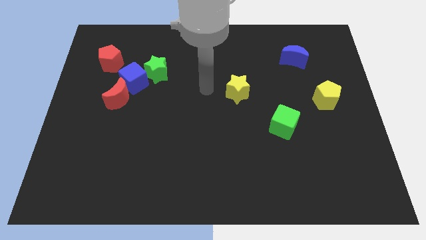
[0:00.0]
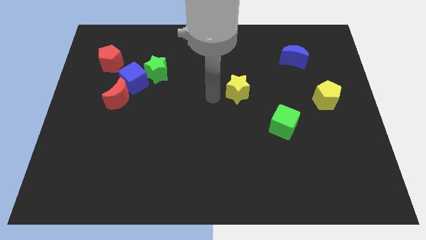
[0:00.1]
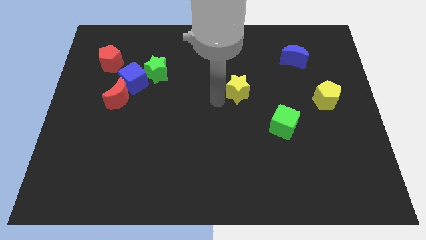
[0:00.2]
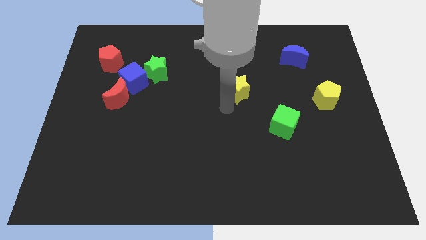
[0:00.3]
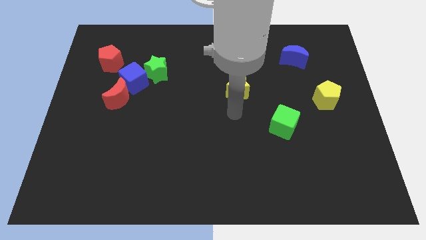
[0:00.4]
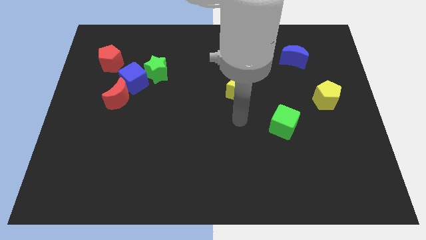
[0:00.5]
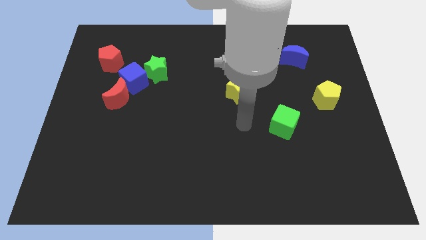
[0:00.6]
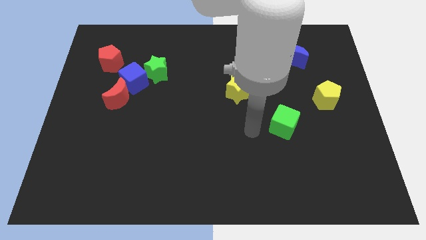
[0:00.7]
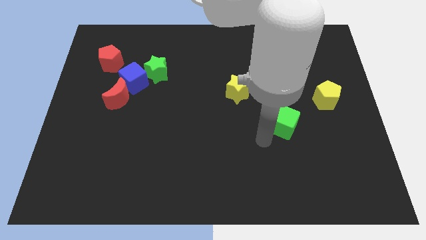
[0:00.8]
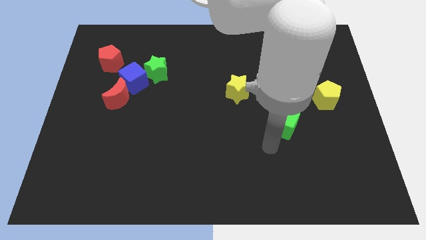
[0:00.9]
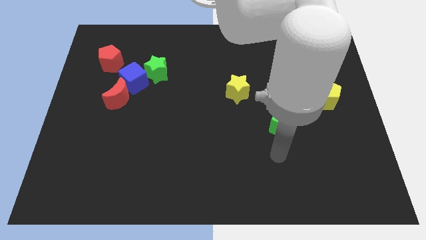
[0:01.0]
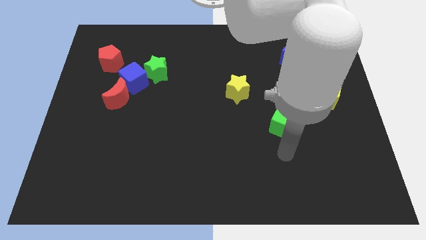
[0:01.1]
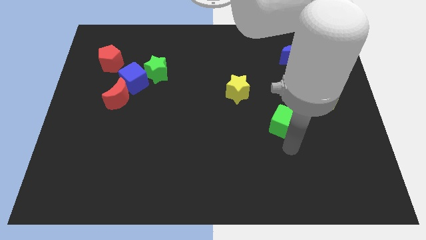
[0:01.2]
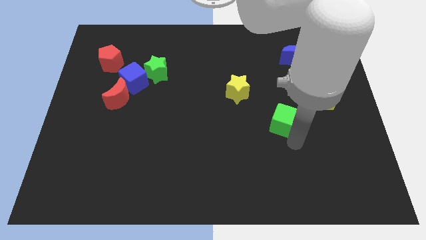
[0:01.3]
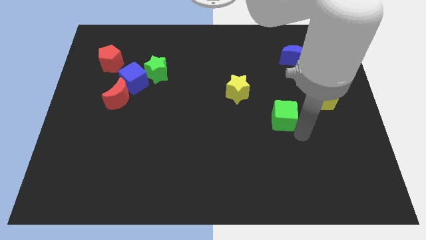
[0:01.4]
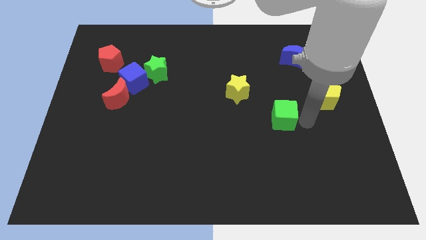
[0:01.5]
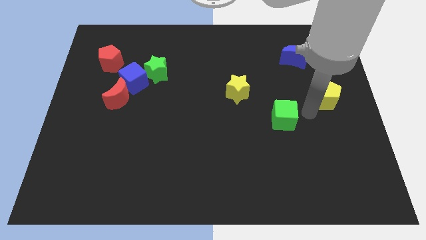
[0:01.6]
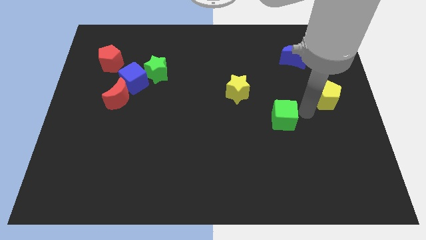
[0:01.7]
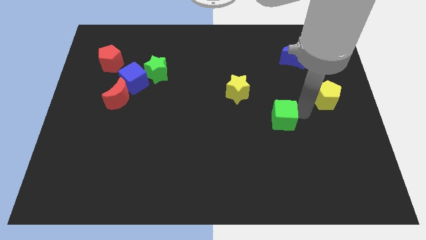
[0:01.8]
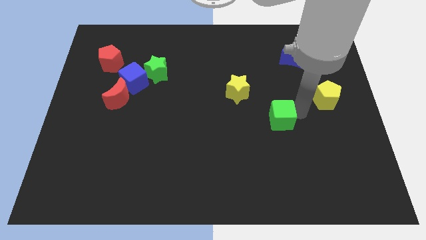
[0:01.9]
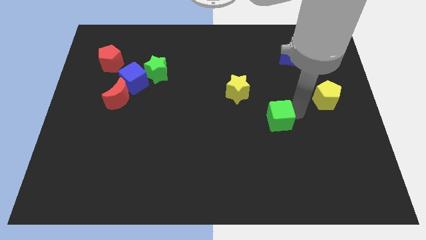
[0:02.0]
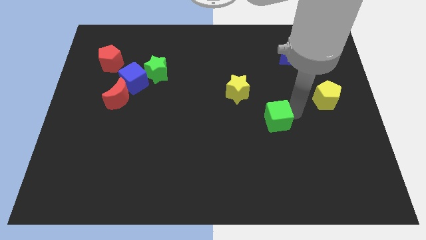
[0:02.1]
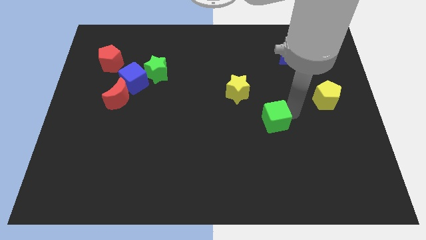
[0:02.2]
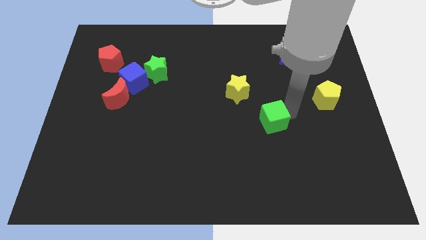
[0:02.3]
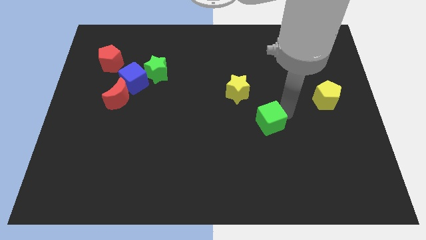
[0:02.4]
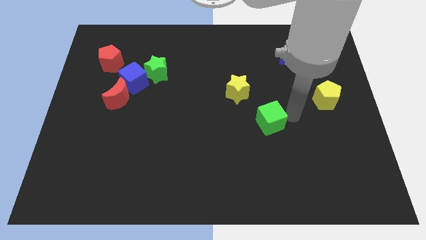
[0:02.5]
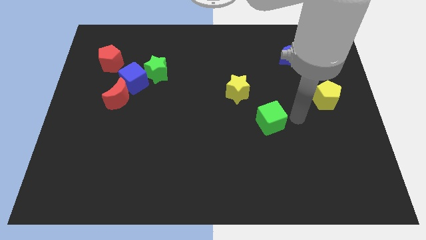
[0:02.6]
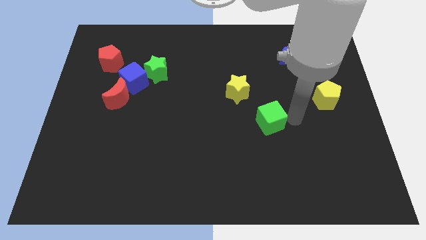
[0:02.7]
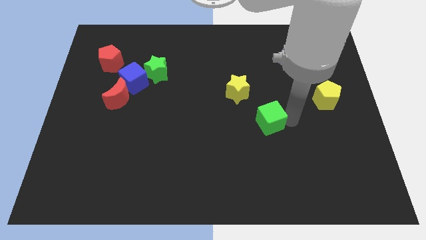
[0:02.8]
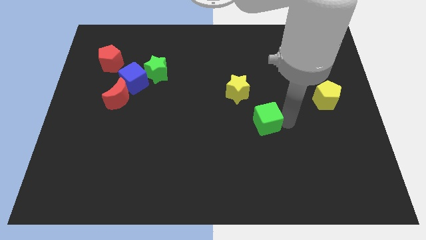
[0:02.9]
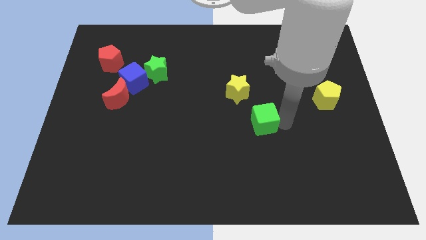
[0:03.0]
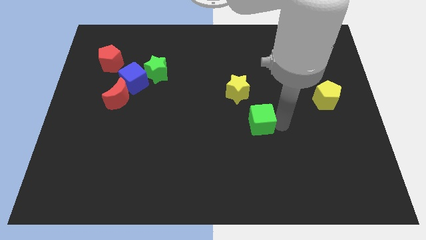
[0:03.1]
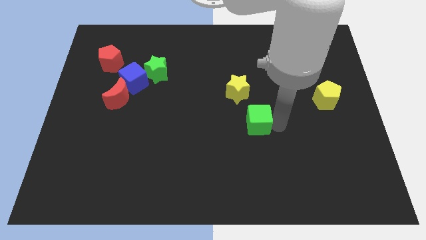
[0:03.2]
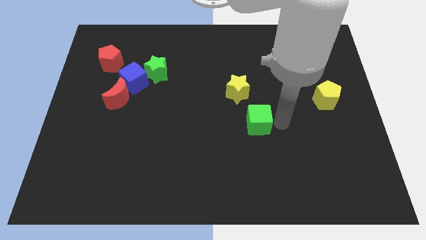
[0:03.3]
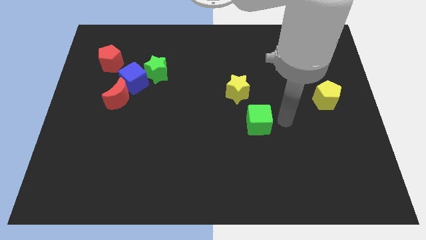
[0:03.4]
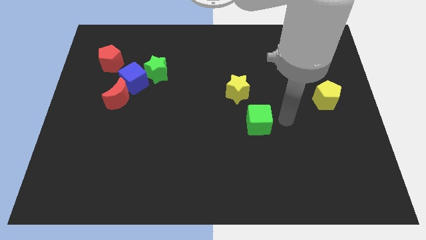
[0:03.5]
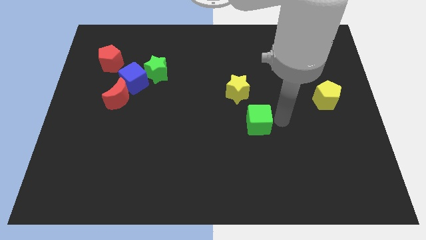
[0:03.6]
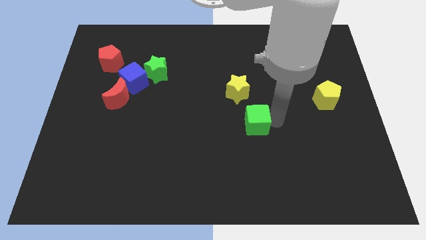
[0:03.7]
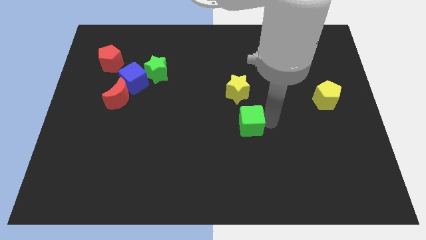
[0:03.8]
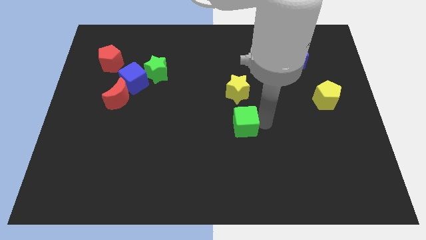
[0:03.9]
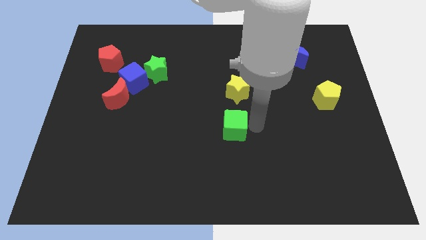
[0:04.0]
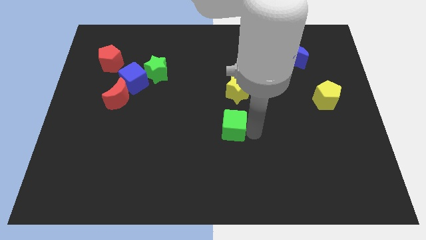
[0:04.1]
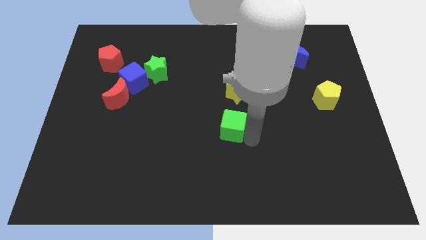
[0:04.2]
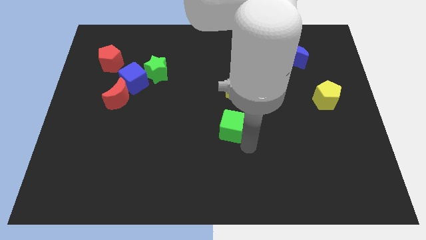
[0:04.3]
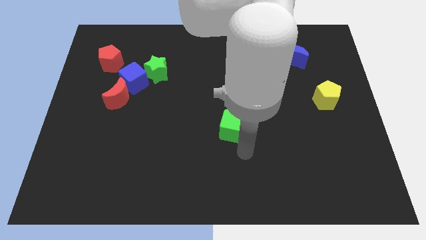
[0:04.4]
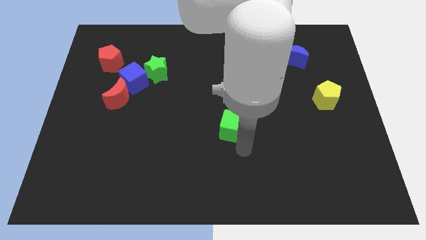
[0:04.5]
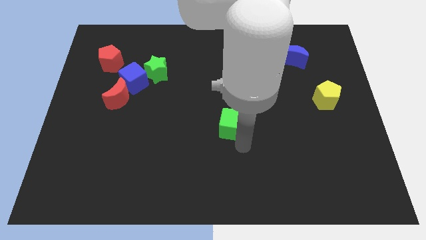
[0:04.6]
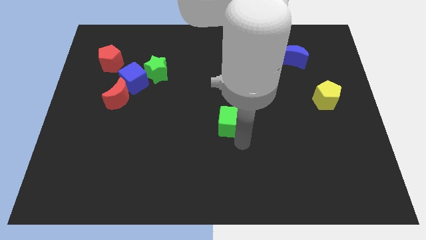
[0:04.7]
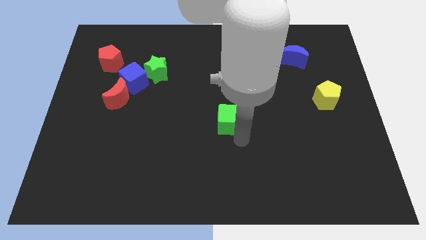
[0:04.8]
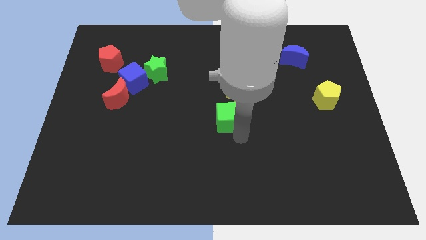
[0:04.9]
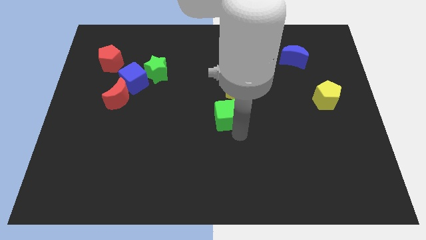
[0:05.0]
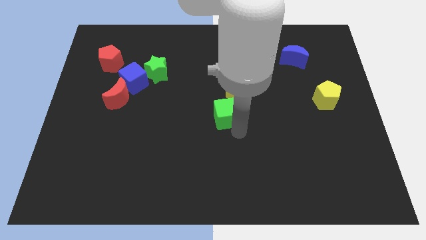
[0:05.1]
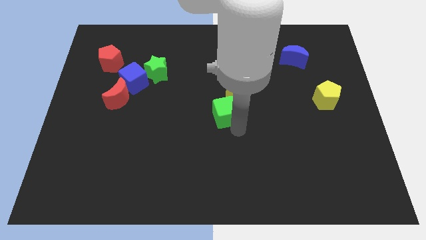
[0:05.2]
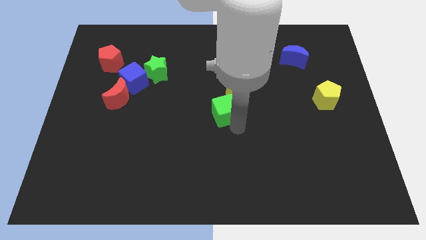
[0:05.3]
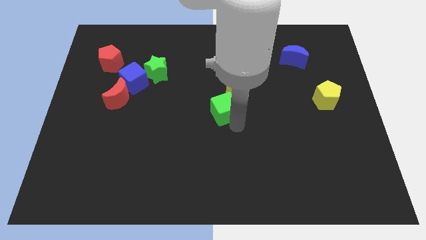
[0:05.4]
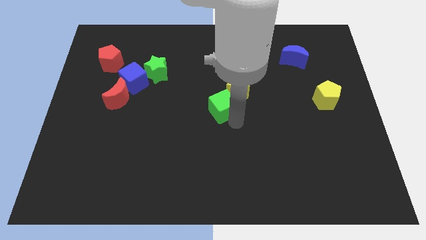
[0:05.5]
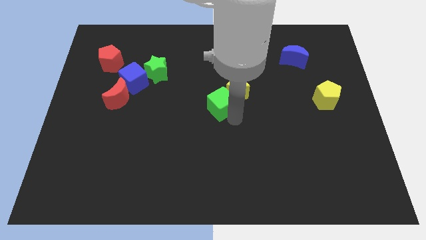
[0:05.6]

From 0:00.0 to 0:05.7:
slide the green cube to the left of the yellow star

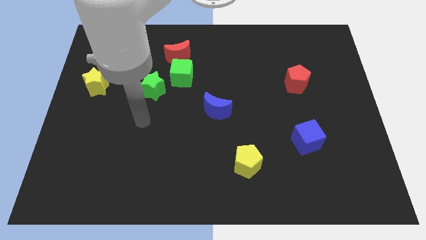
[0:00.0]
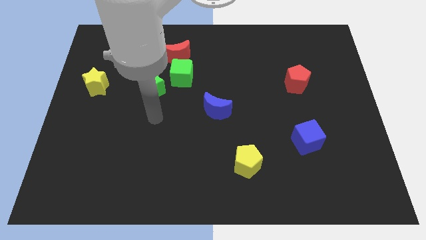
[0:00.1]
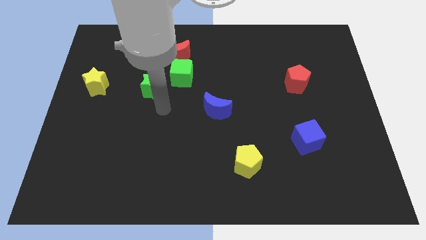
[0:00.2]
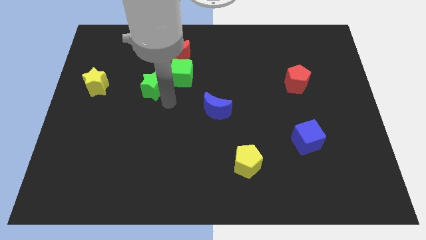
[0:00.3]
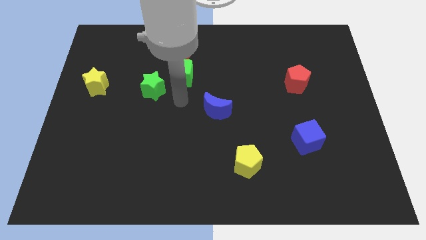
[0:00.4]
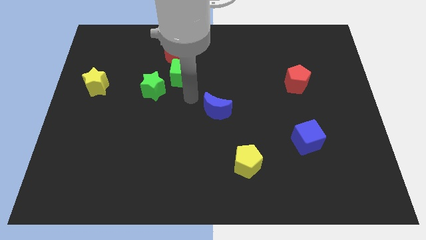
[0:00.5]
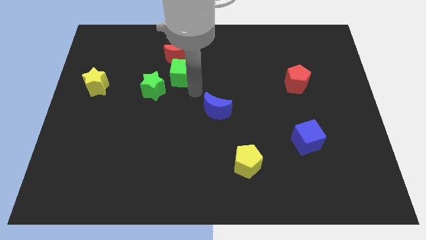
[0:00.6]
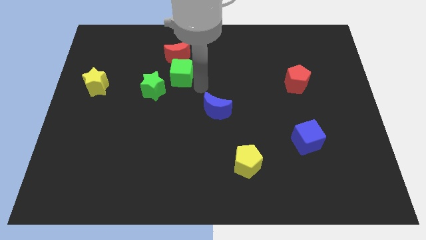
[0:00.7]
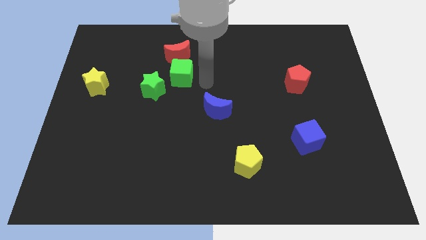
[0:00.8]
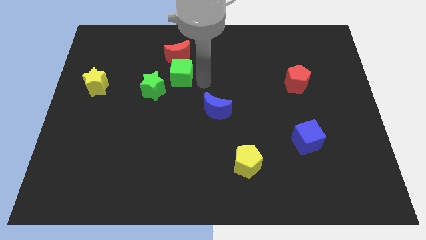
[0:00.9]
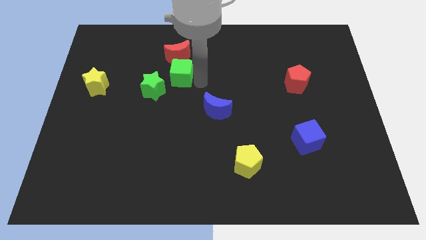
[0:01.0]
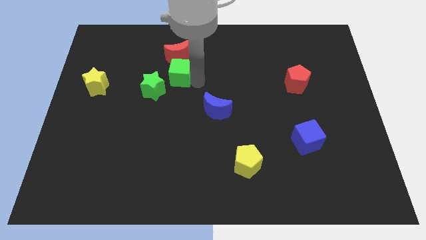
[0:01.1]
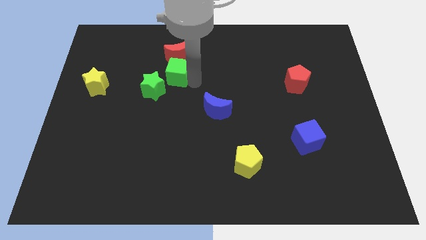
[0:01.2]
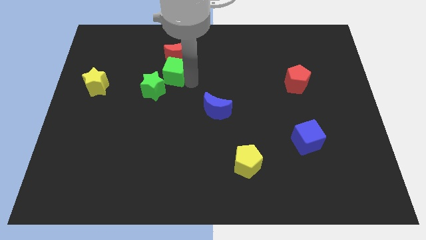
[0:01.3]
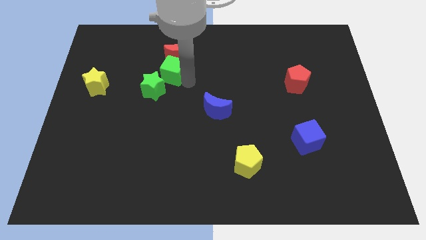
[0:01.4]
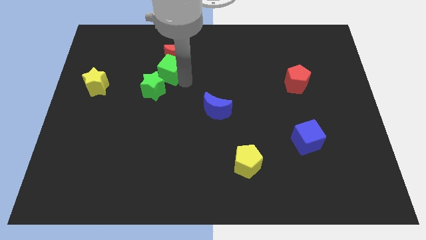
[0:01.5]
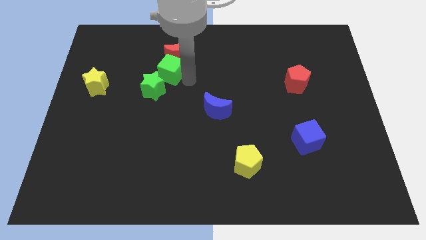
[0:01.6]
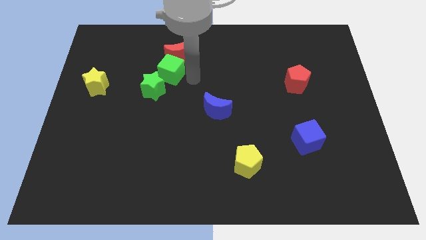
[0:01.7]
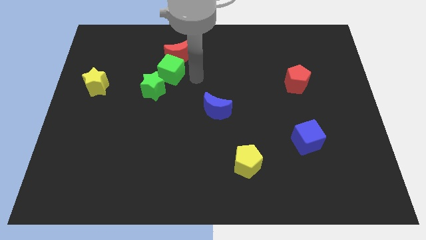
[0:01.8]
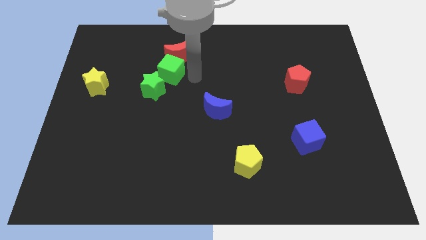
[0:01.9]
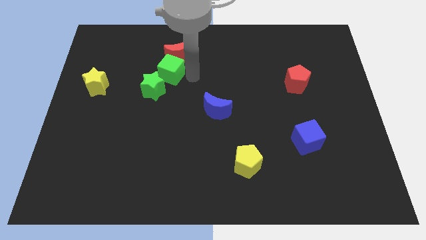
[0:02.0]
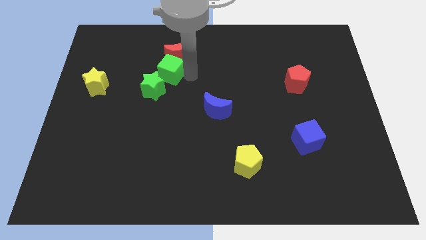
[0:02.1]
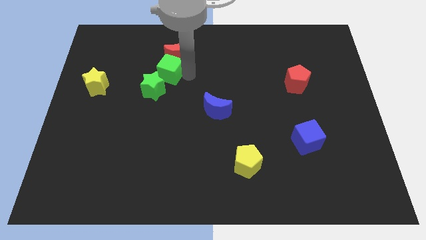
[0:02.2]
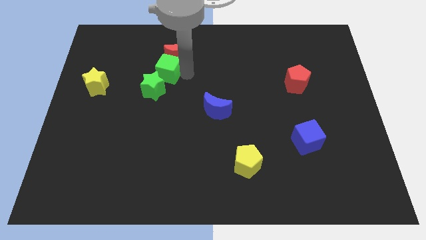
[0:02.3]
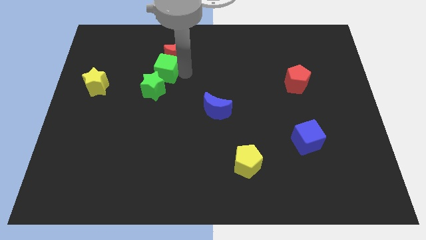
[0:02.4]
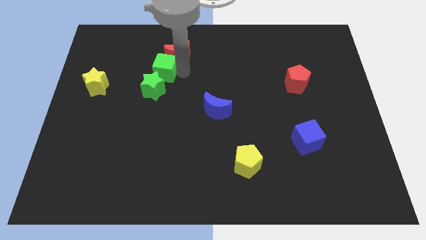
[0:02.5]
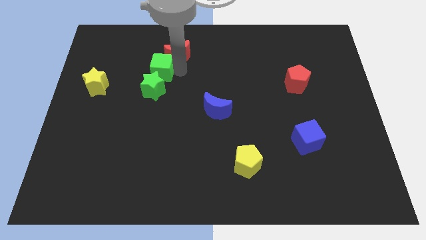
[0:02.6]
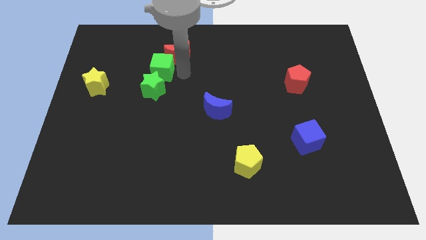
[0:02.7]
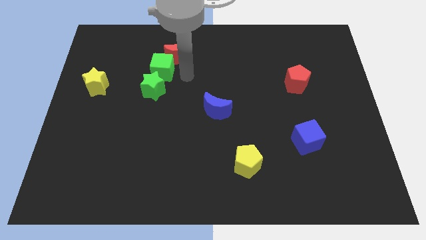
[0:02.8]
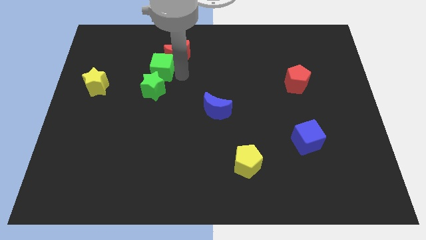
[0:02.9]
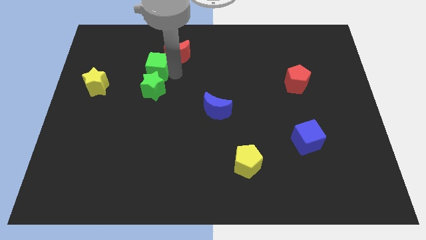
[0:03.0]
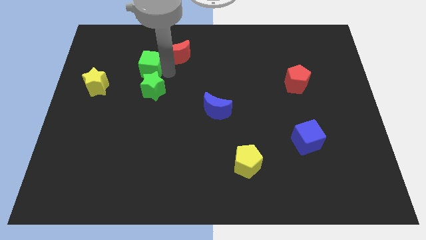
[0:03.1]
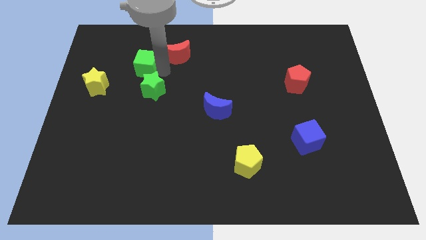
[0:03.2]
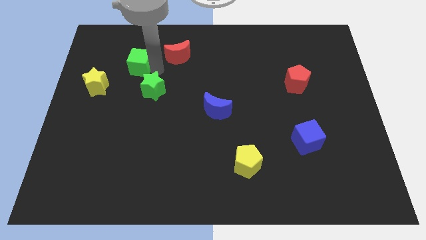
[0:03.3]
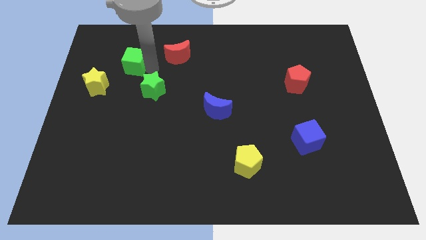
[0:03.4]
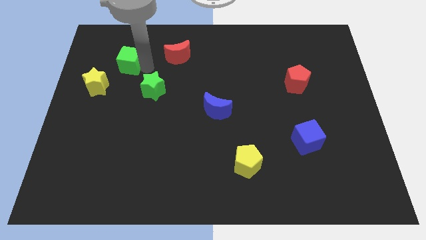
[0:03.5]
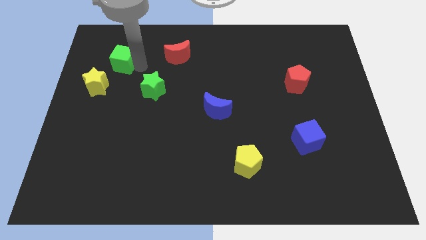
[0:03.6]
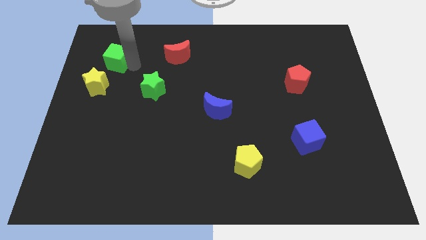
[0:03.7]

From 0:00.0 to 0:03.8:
put the green cube to the top of the yellow star
